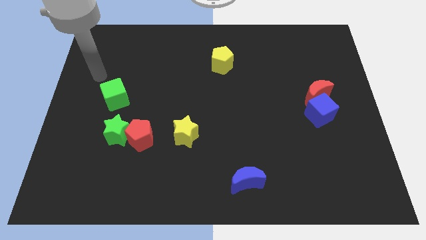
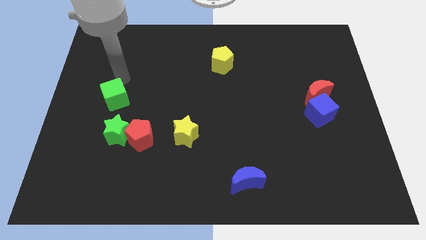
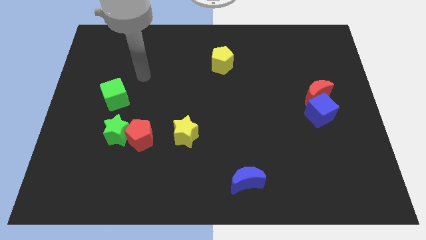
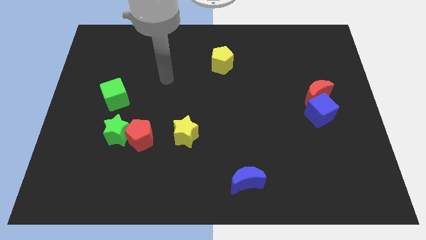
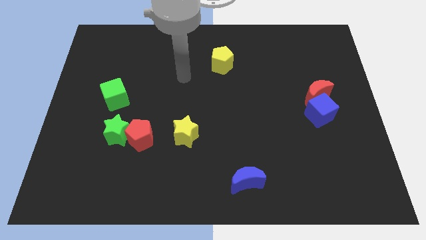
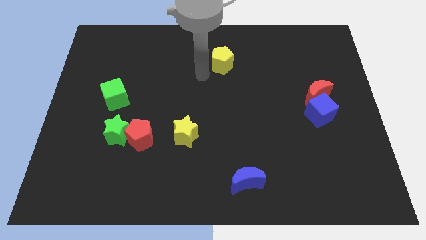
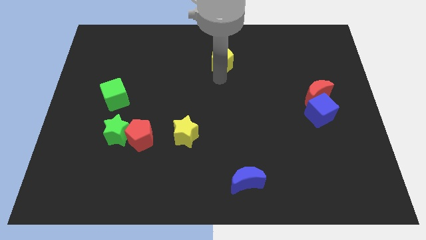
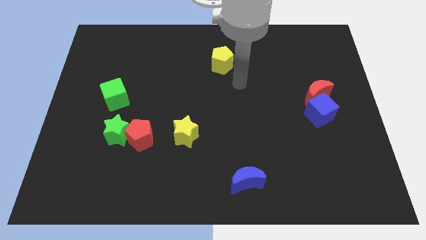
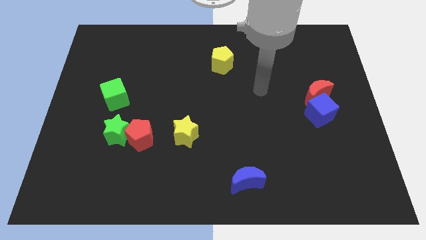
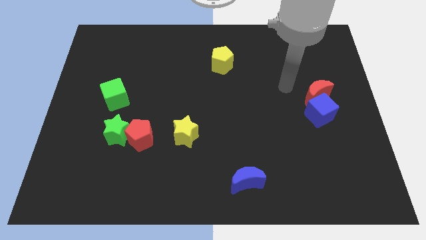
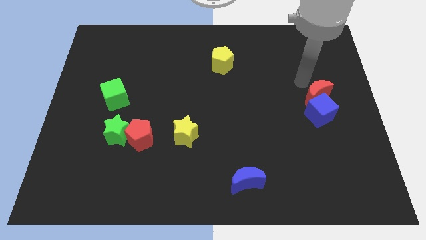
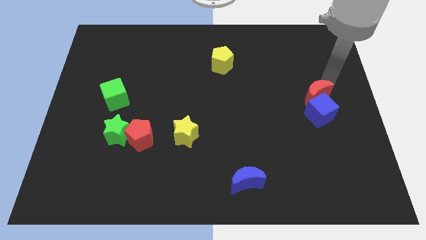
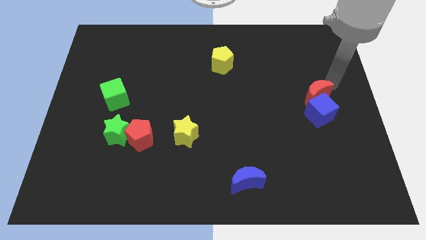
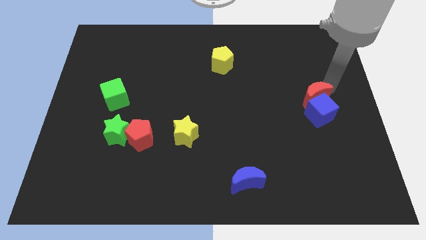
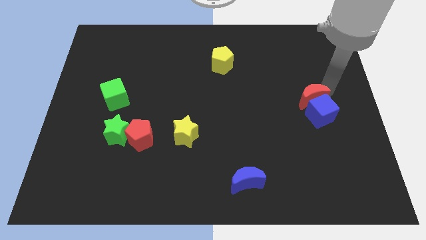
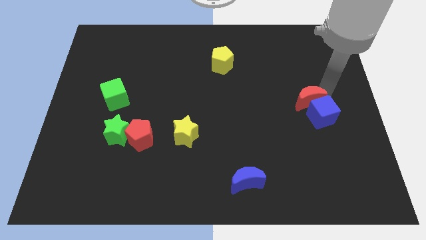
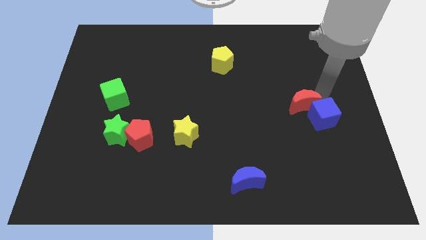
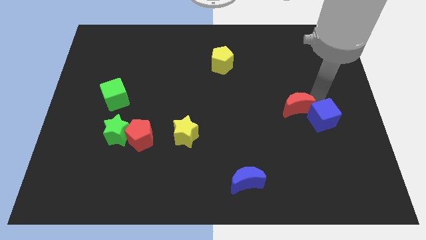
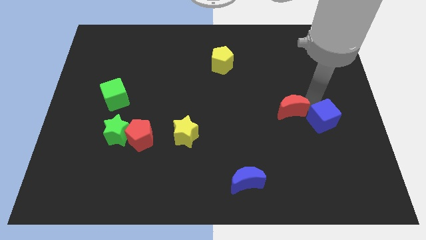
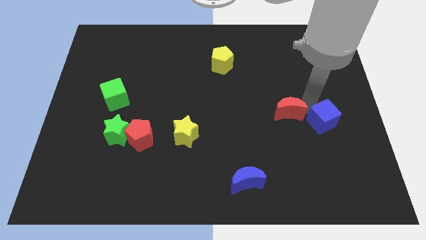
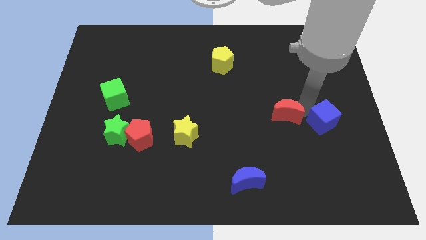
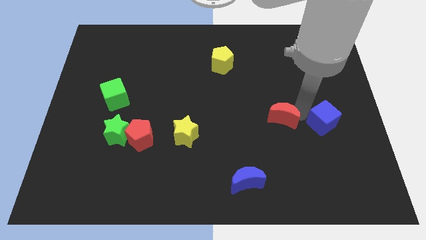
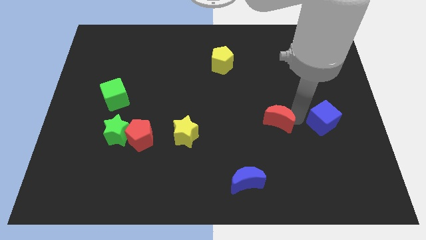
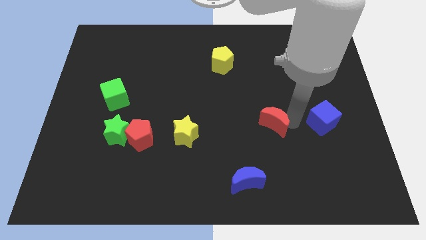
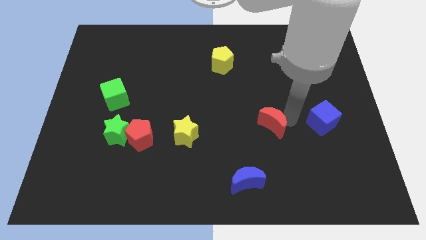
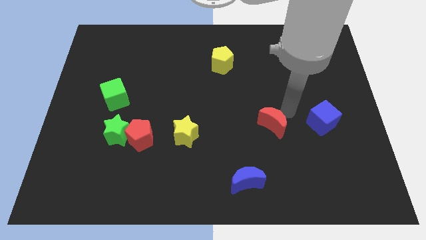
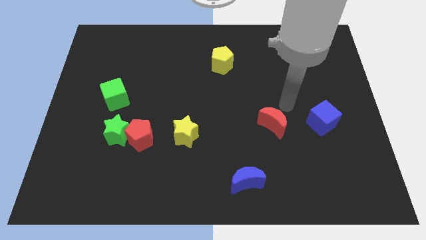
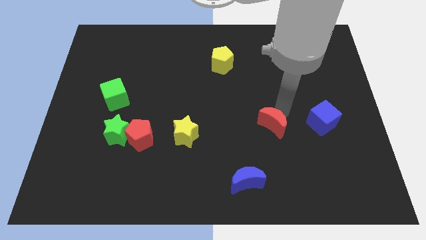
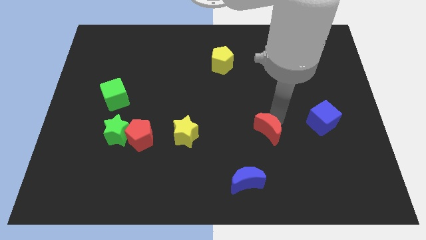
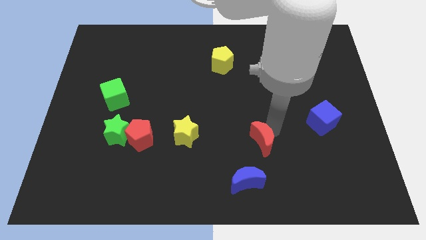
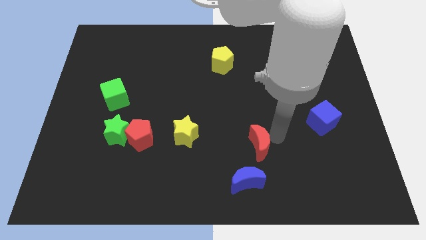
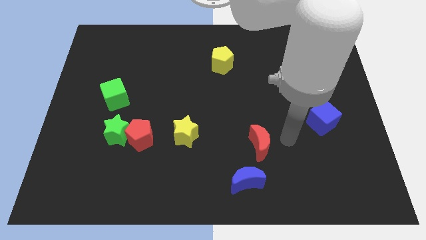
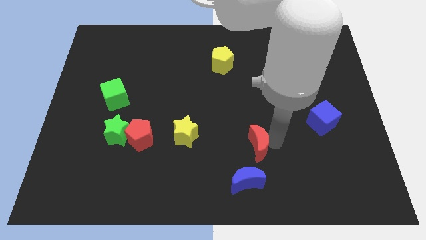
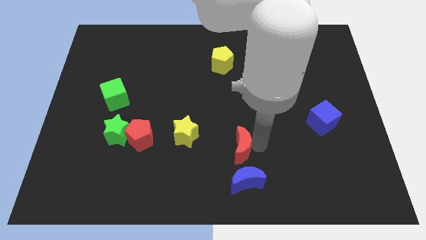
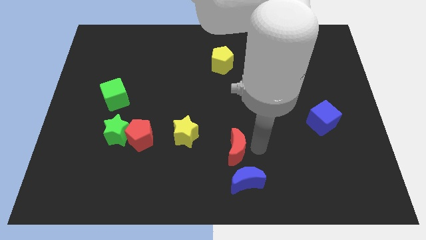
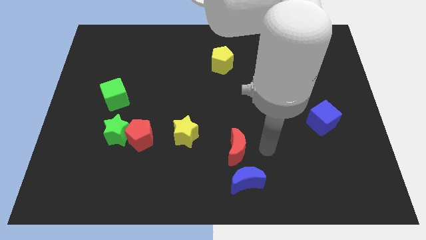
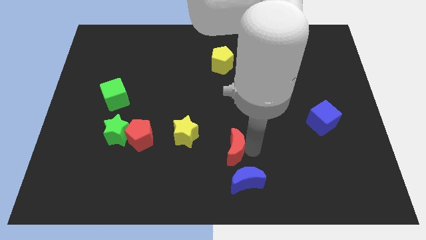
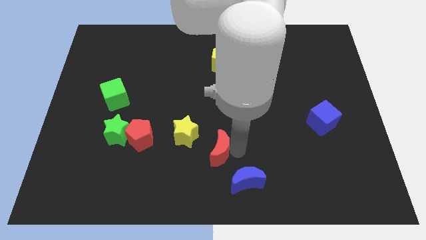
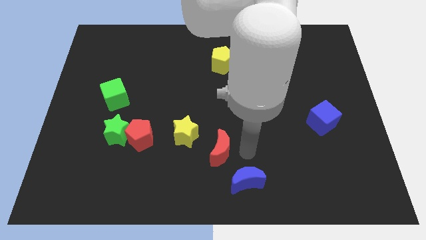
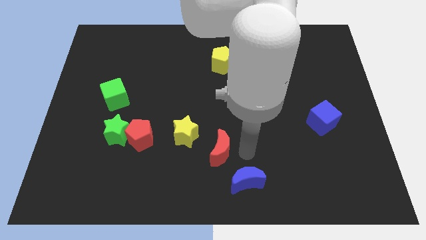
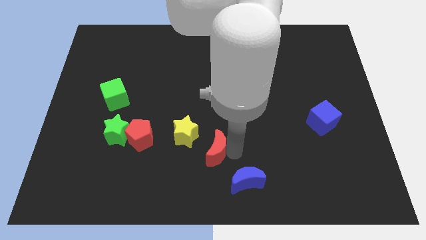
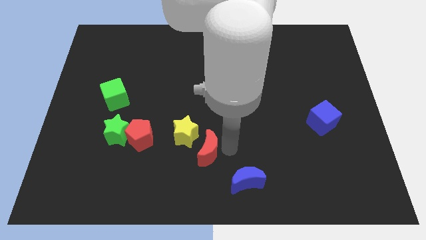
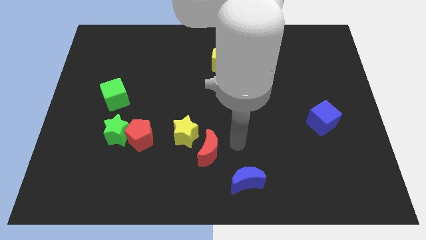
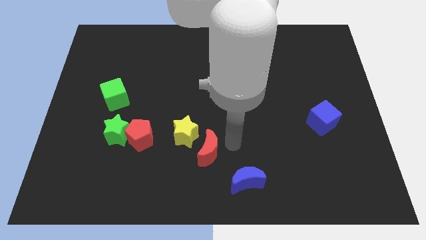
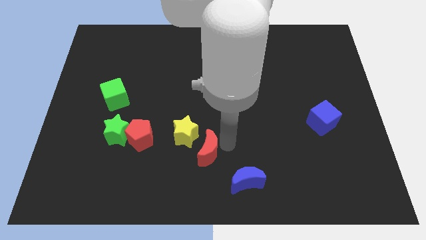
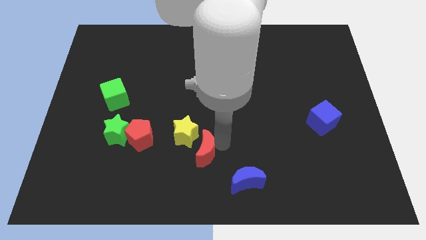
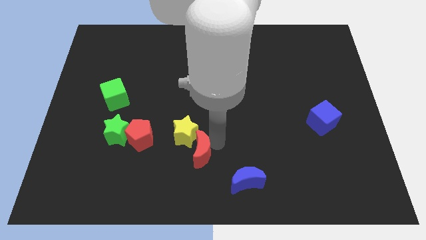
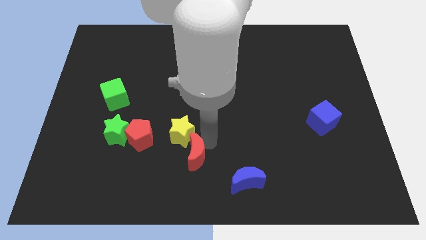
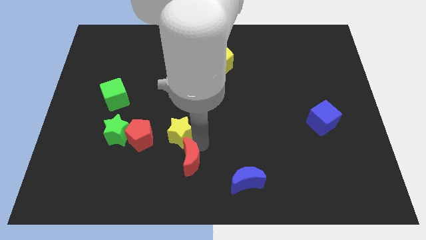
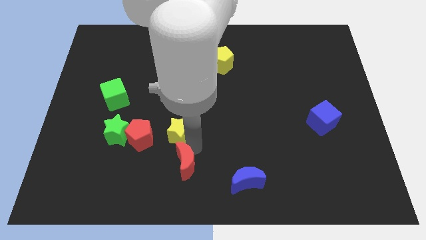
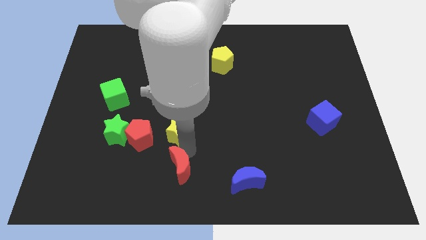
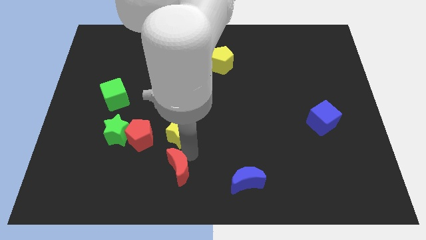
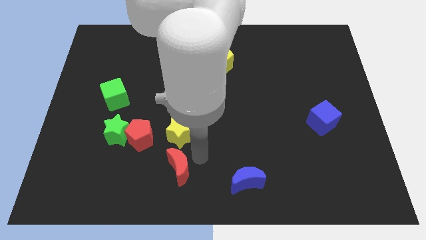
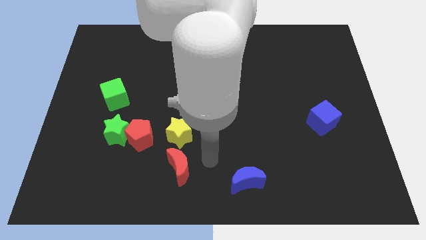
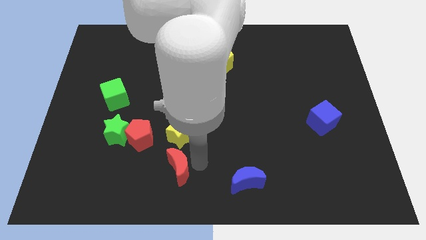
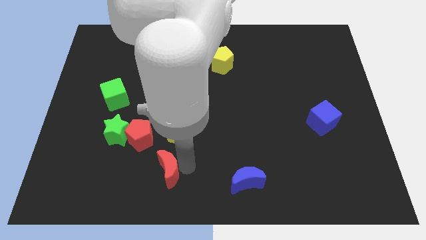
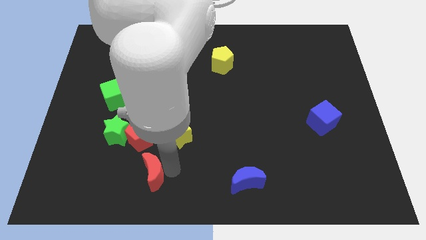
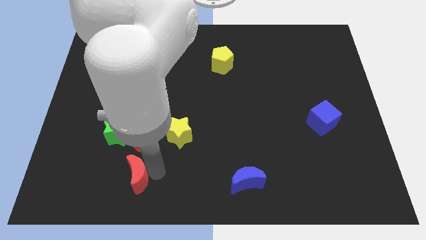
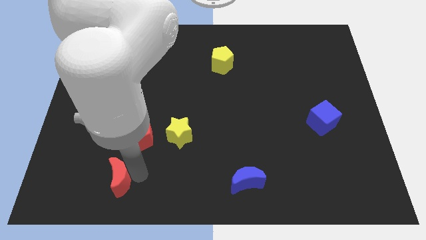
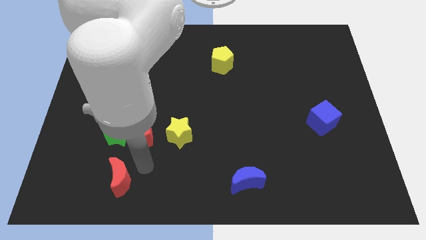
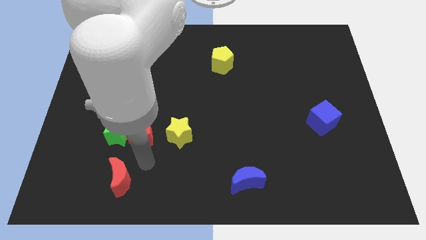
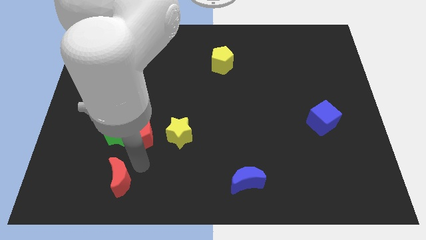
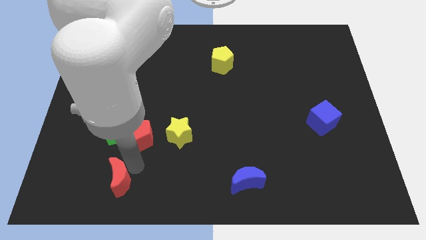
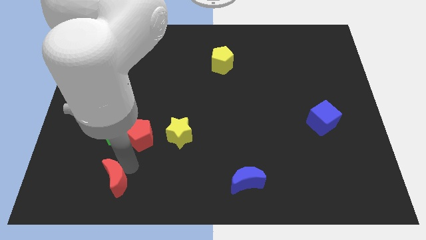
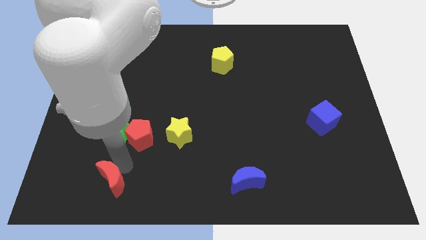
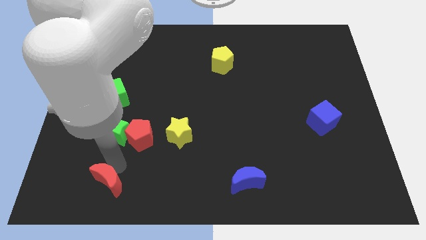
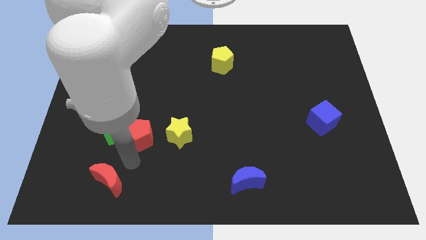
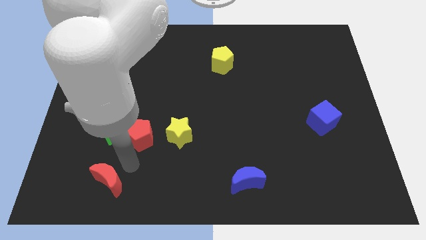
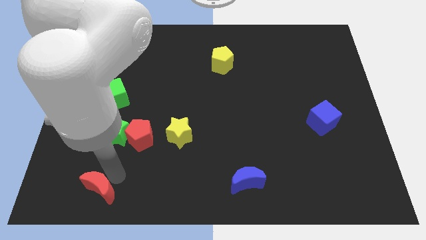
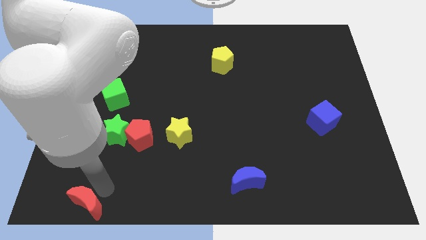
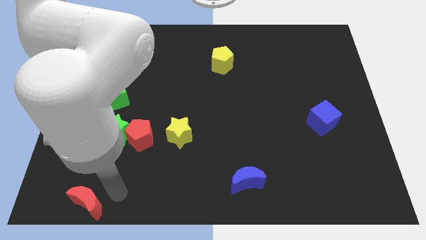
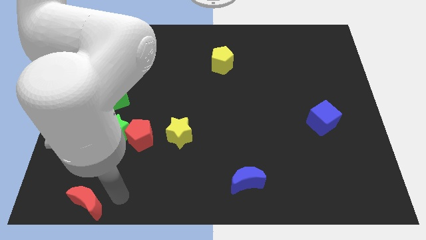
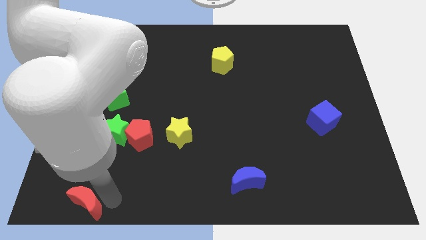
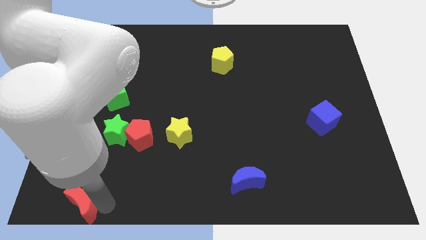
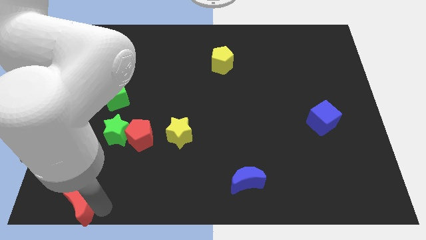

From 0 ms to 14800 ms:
put the red moon to the bottom left of the board
